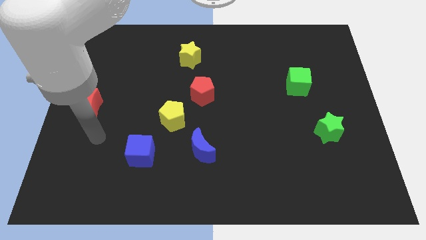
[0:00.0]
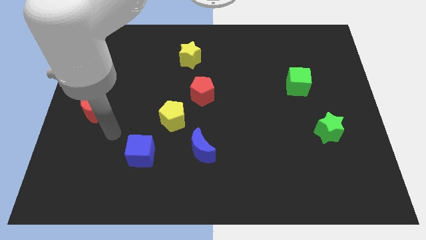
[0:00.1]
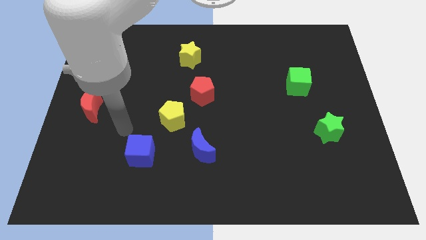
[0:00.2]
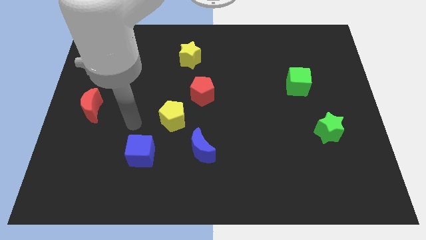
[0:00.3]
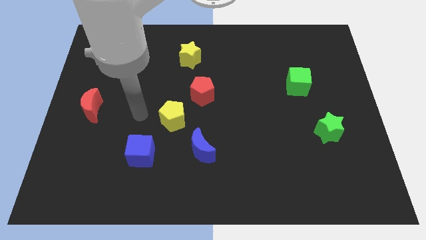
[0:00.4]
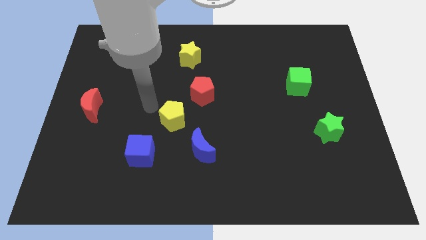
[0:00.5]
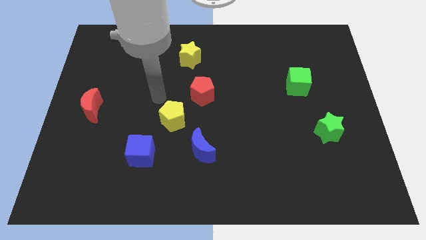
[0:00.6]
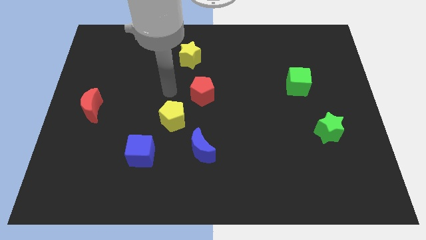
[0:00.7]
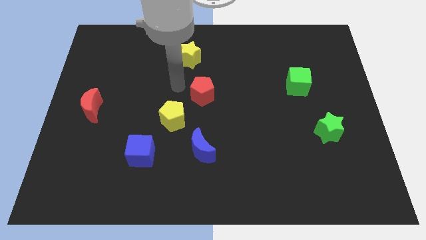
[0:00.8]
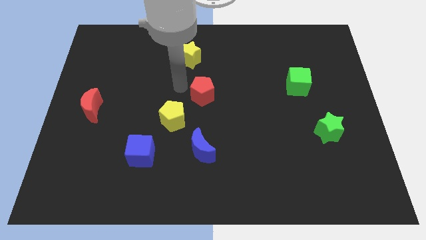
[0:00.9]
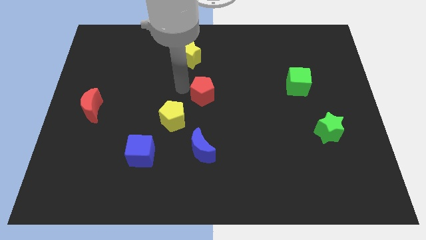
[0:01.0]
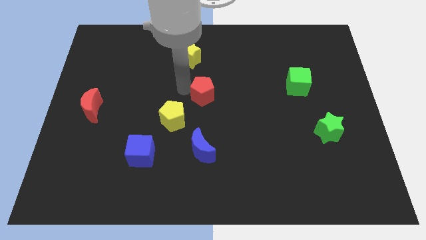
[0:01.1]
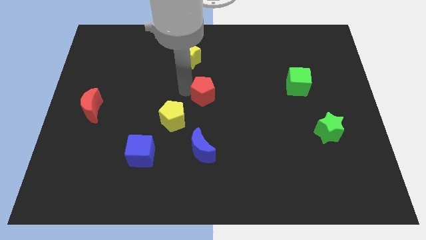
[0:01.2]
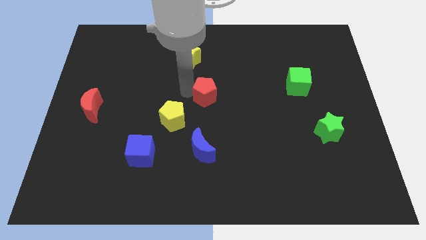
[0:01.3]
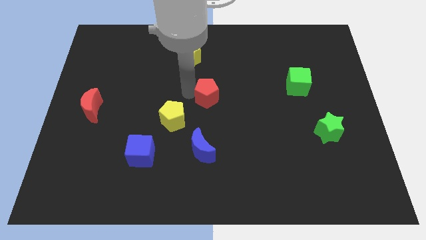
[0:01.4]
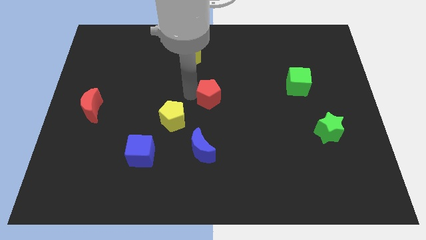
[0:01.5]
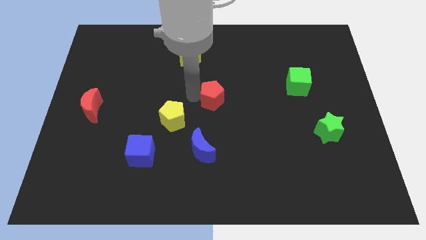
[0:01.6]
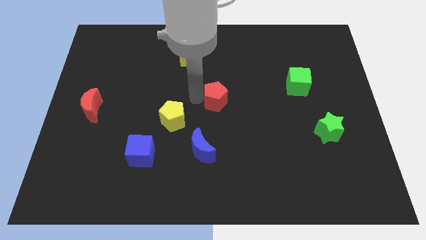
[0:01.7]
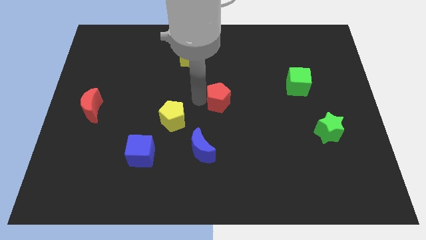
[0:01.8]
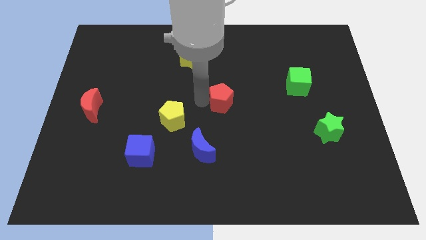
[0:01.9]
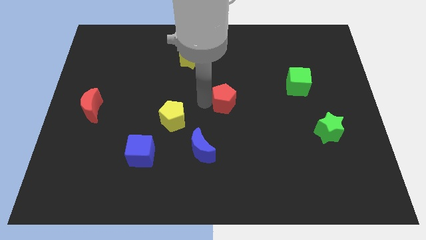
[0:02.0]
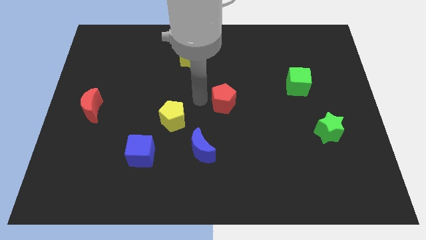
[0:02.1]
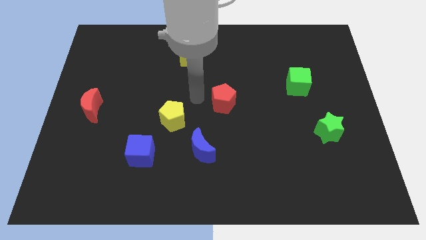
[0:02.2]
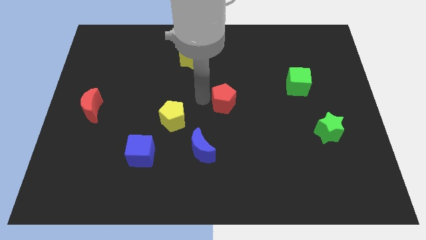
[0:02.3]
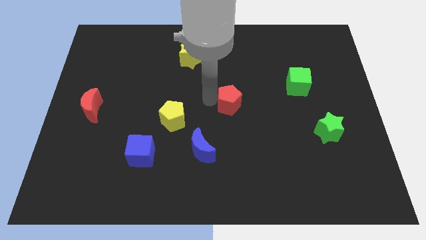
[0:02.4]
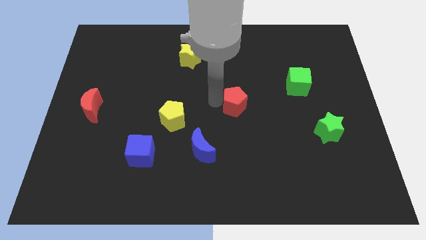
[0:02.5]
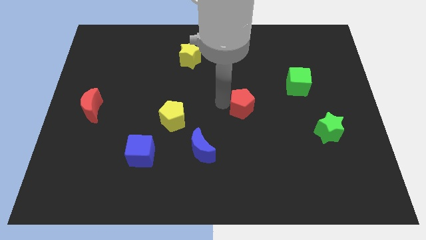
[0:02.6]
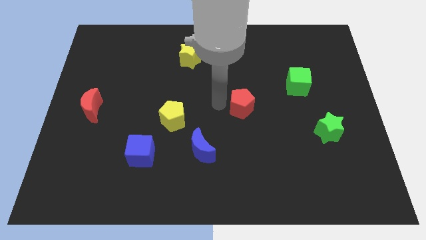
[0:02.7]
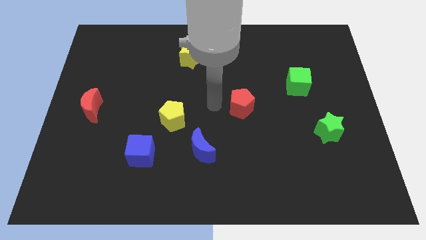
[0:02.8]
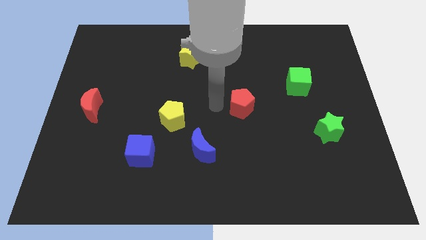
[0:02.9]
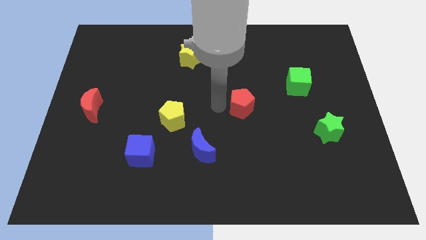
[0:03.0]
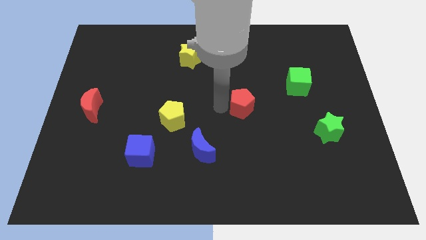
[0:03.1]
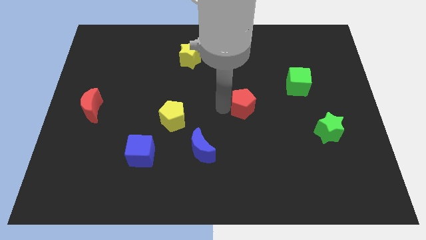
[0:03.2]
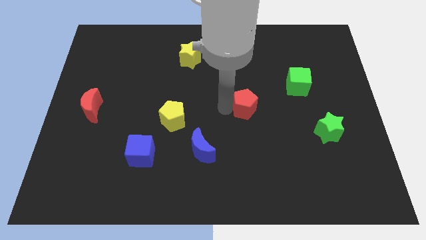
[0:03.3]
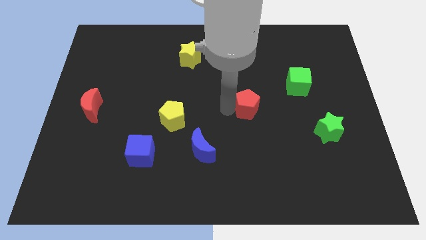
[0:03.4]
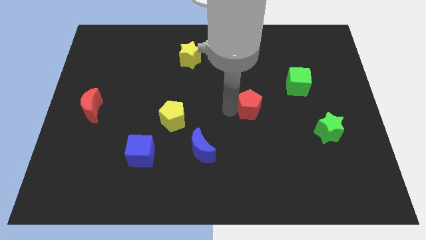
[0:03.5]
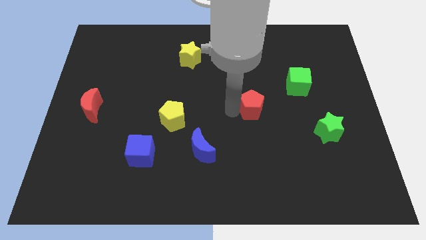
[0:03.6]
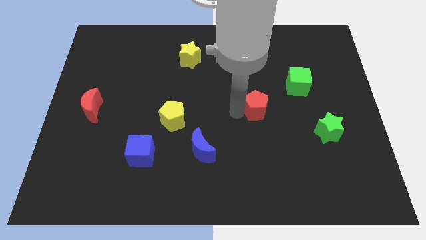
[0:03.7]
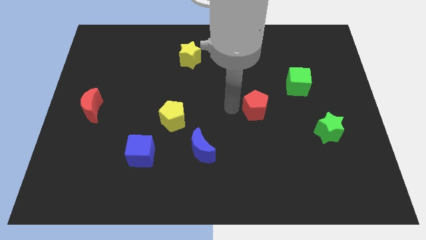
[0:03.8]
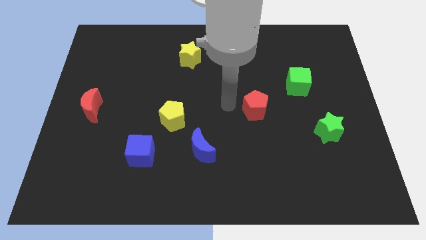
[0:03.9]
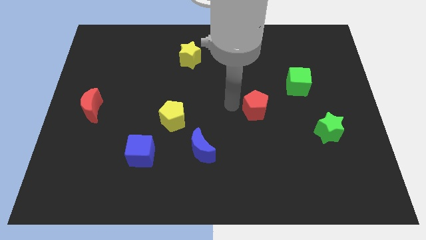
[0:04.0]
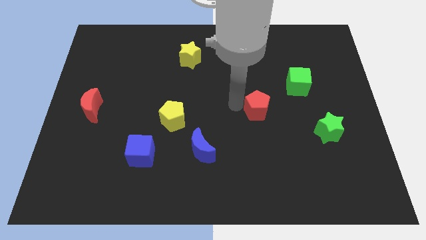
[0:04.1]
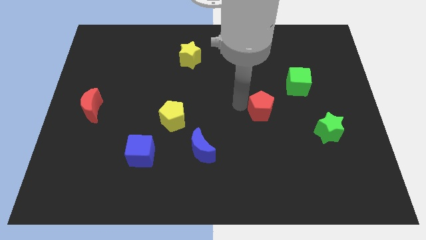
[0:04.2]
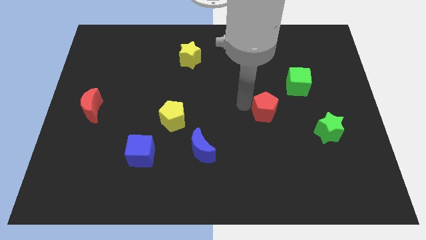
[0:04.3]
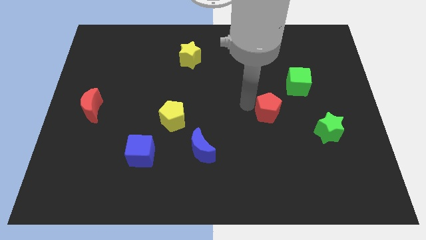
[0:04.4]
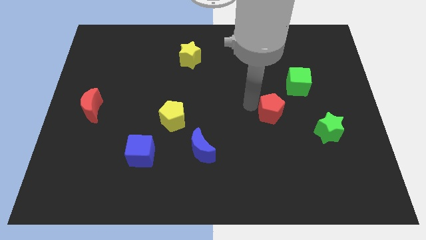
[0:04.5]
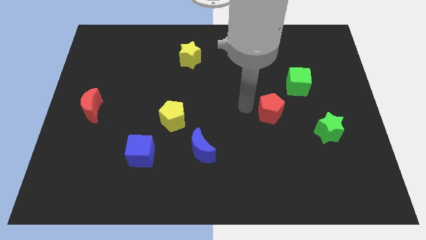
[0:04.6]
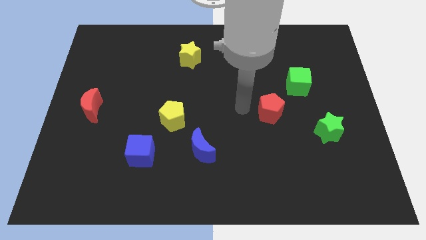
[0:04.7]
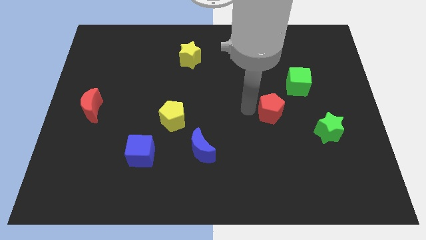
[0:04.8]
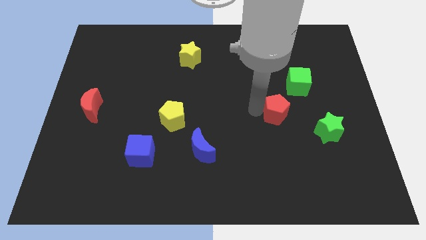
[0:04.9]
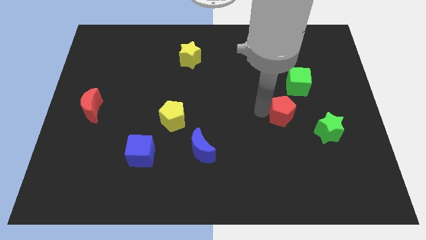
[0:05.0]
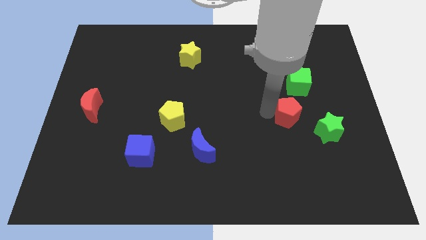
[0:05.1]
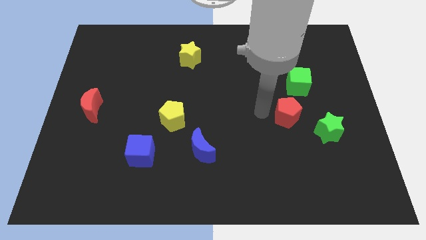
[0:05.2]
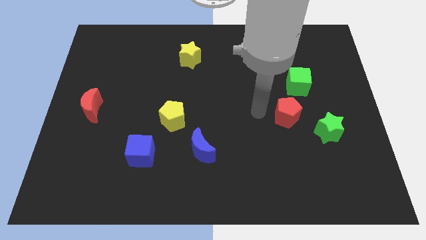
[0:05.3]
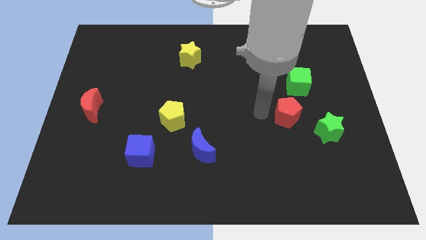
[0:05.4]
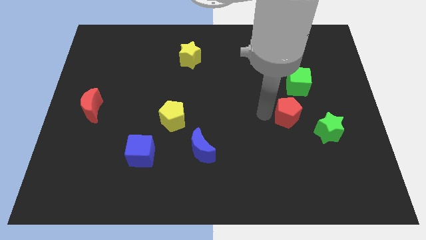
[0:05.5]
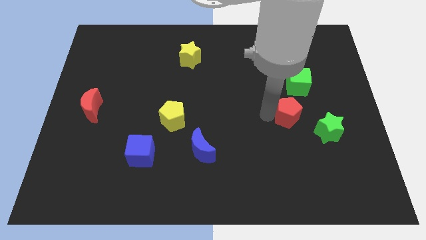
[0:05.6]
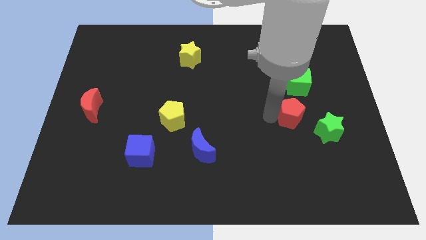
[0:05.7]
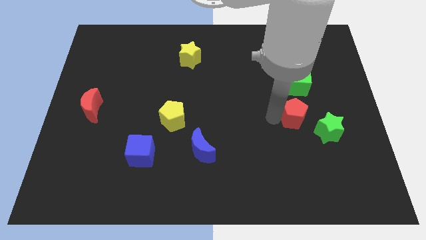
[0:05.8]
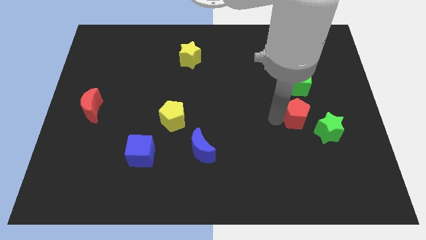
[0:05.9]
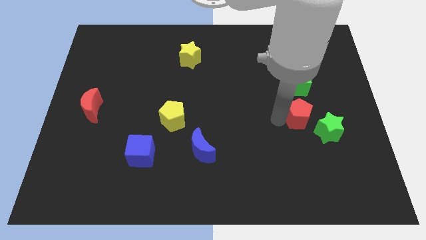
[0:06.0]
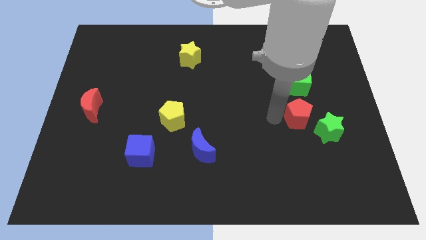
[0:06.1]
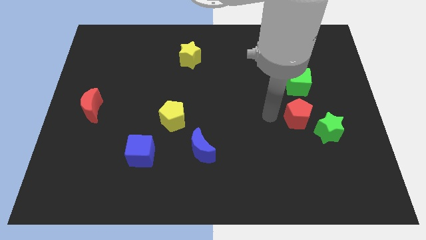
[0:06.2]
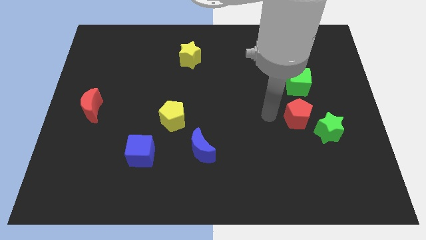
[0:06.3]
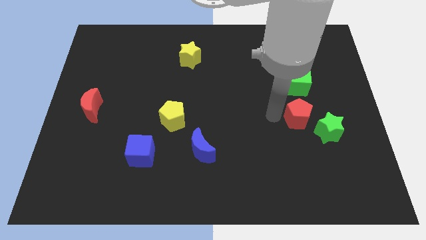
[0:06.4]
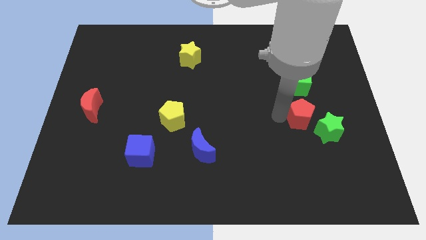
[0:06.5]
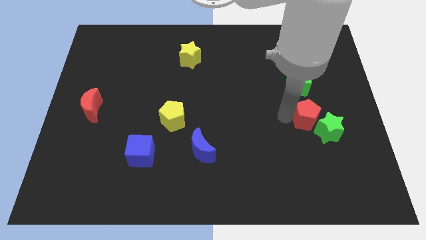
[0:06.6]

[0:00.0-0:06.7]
slide the red pentagon towards the green star
